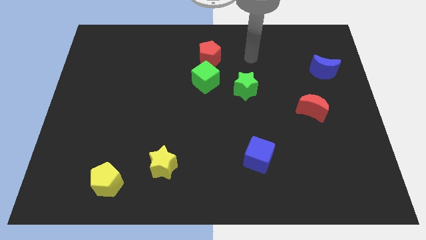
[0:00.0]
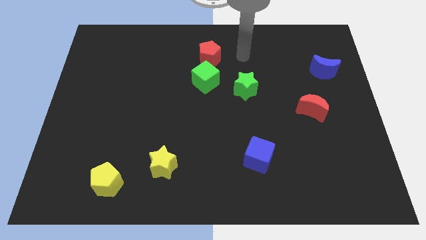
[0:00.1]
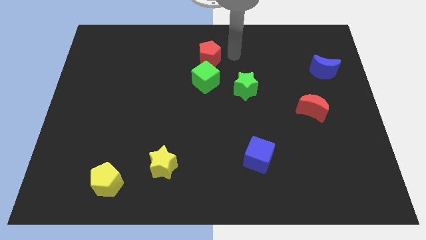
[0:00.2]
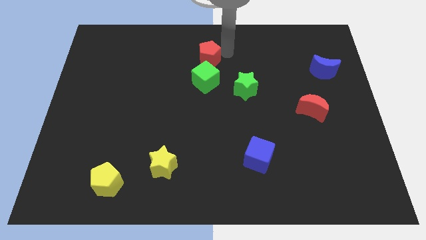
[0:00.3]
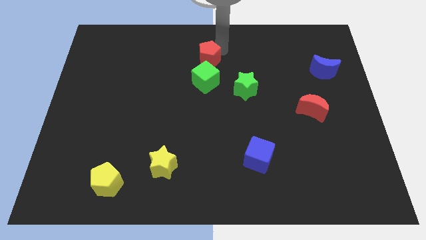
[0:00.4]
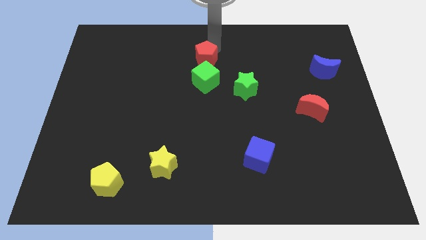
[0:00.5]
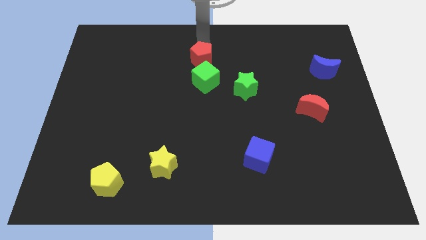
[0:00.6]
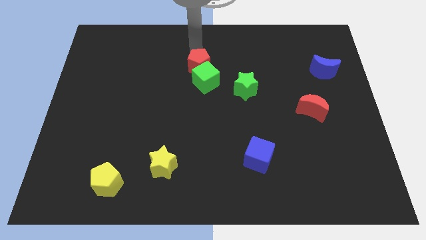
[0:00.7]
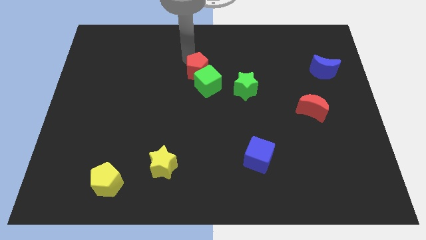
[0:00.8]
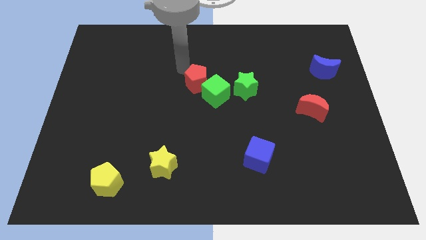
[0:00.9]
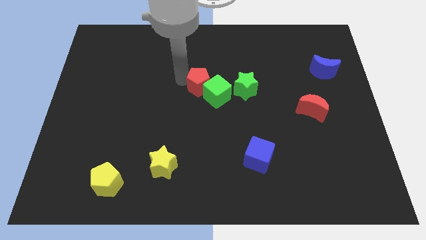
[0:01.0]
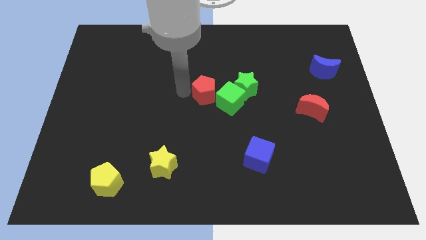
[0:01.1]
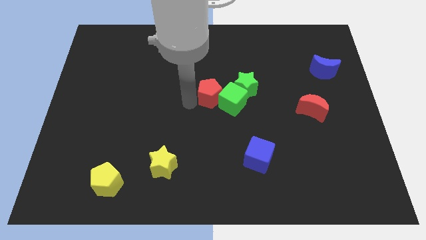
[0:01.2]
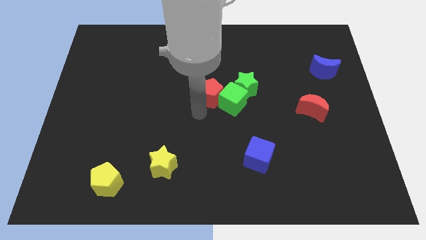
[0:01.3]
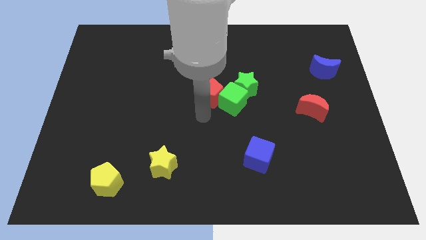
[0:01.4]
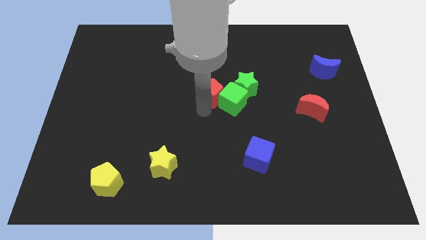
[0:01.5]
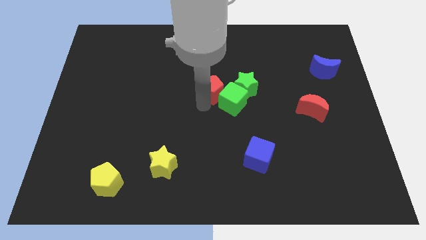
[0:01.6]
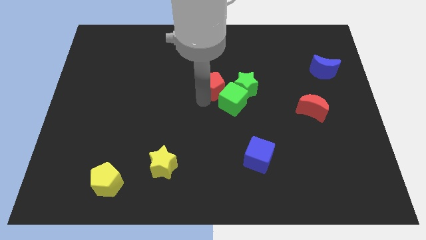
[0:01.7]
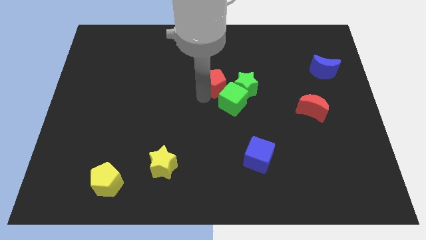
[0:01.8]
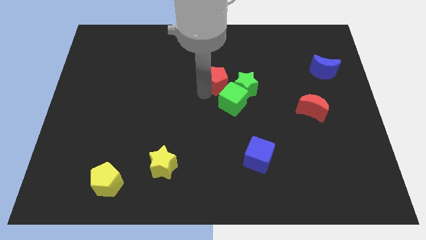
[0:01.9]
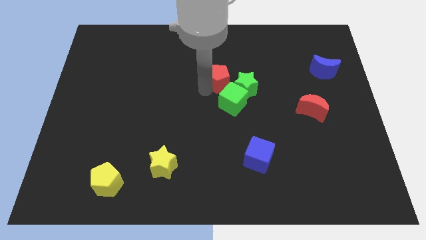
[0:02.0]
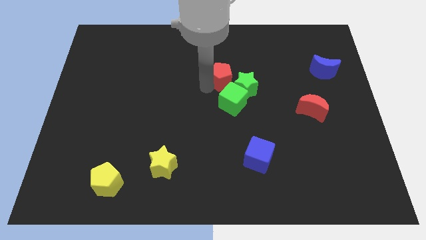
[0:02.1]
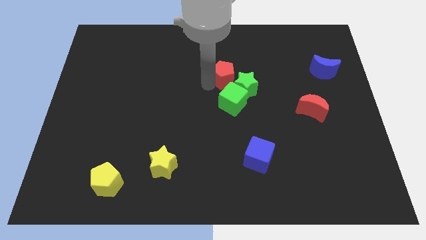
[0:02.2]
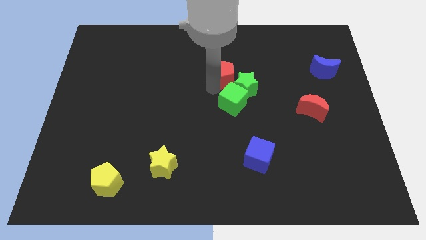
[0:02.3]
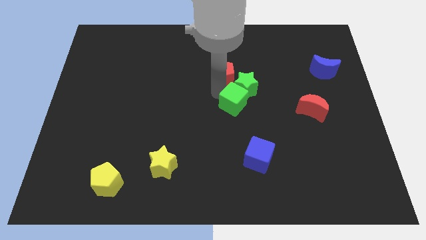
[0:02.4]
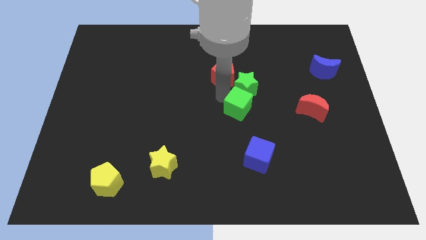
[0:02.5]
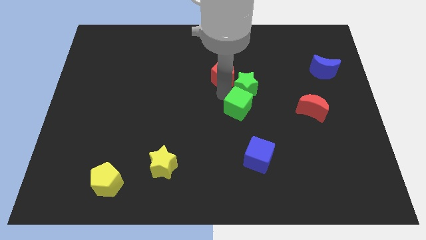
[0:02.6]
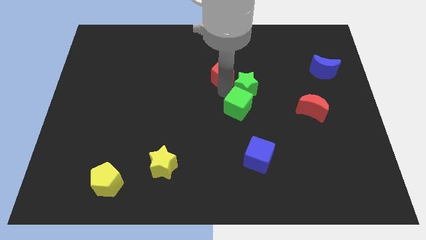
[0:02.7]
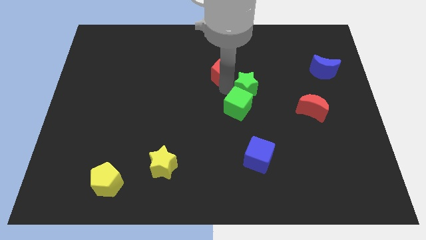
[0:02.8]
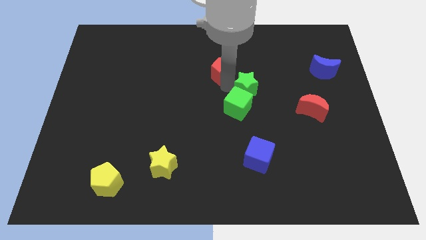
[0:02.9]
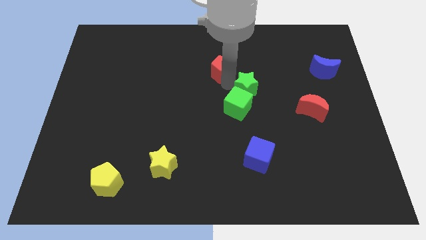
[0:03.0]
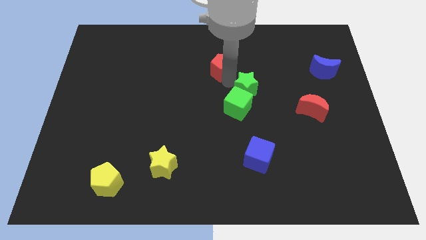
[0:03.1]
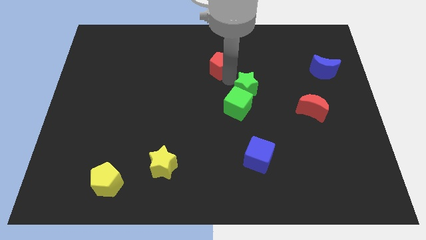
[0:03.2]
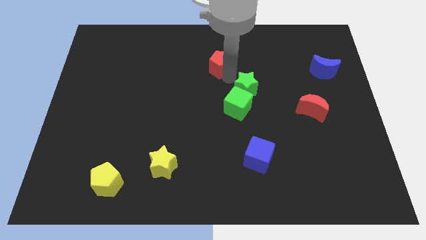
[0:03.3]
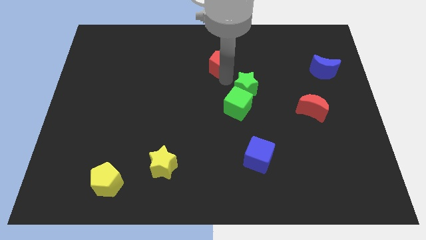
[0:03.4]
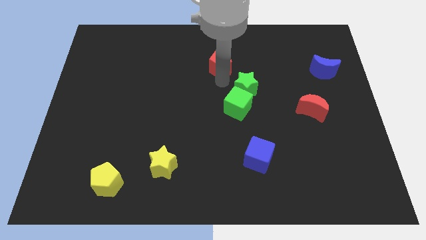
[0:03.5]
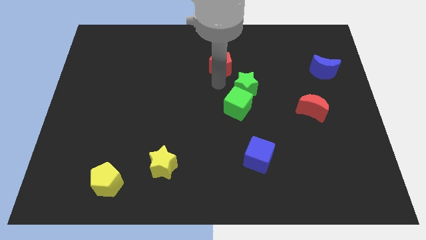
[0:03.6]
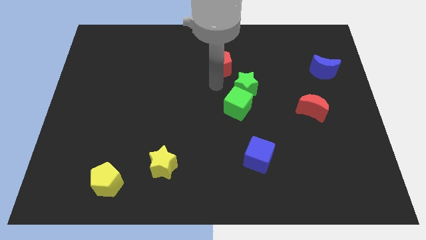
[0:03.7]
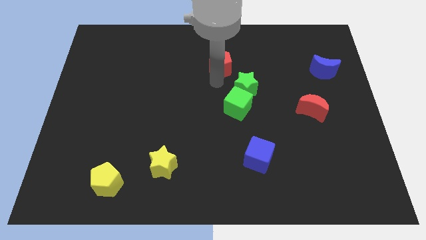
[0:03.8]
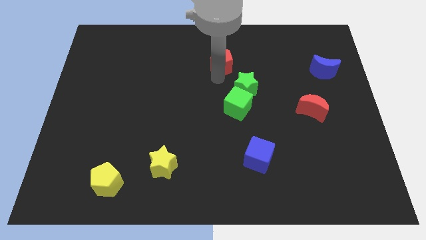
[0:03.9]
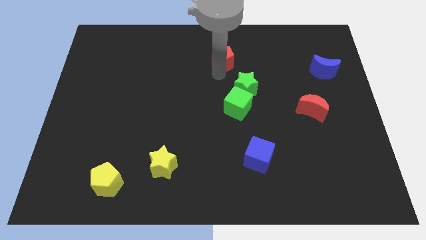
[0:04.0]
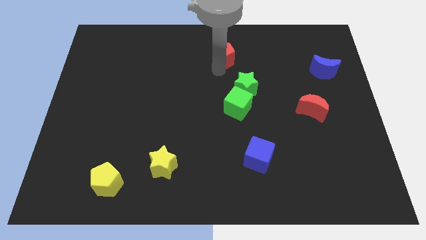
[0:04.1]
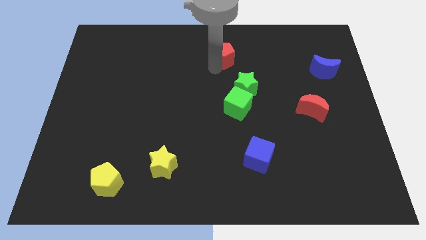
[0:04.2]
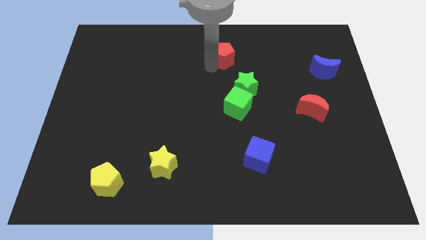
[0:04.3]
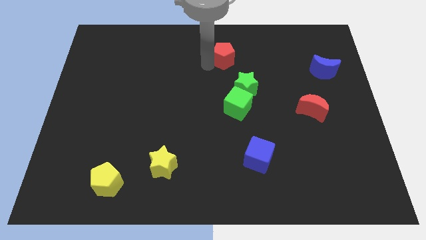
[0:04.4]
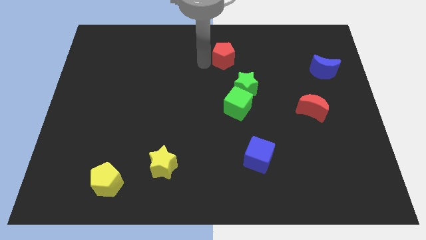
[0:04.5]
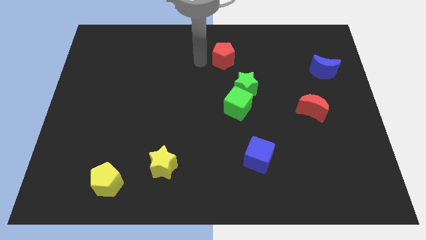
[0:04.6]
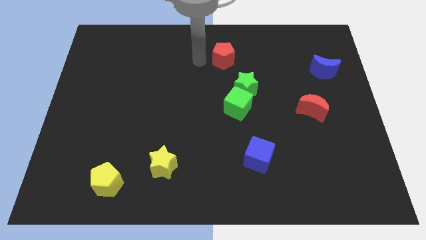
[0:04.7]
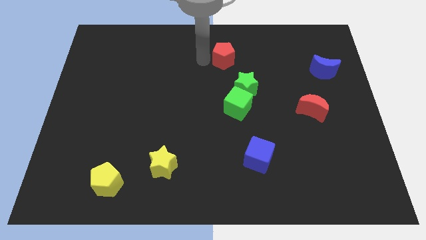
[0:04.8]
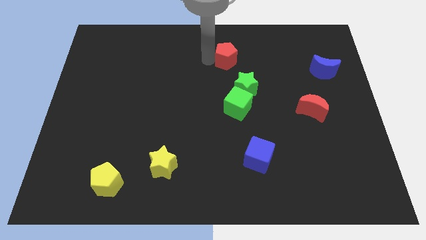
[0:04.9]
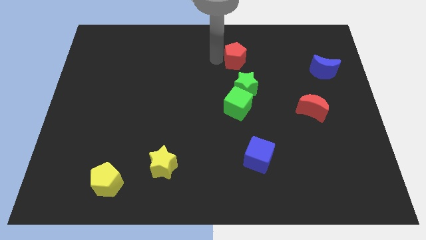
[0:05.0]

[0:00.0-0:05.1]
push the red pentagon right somewhat

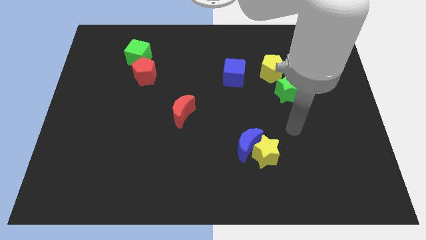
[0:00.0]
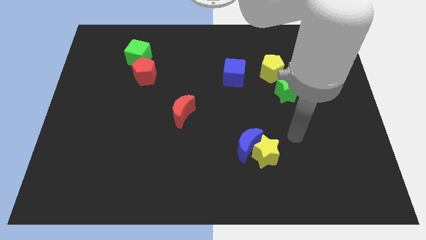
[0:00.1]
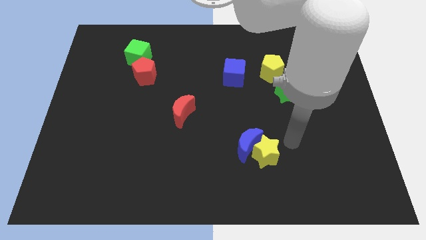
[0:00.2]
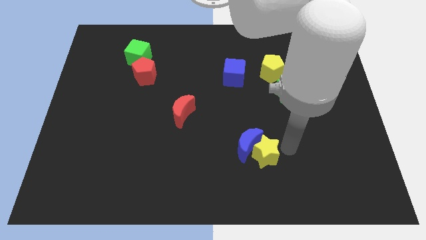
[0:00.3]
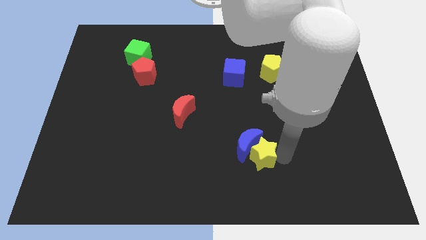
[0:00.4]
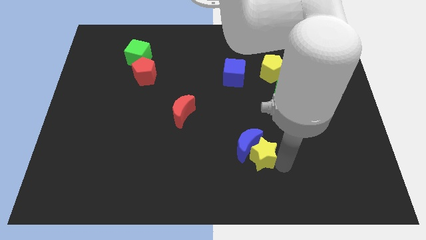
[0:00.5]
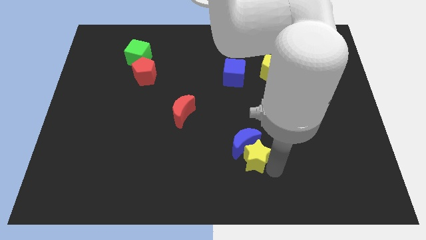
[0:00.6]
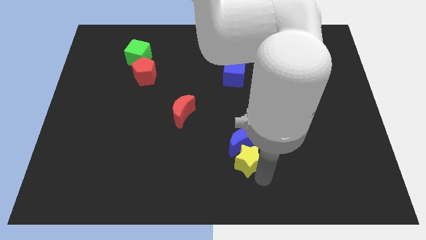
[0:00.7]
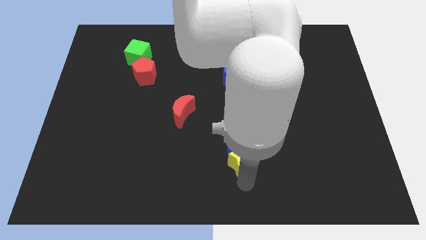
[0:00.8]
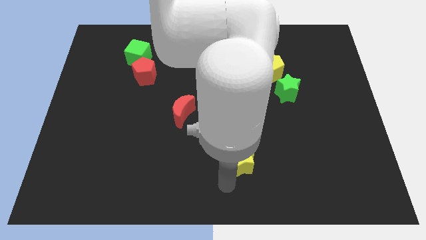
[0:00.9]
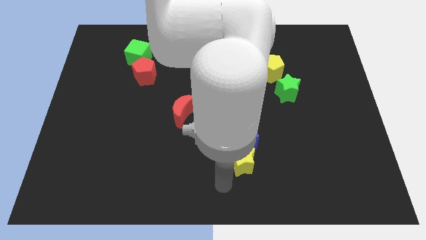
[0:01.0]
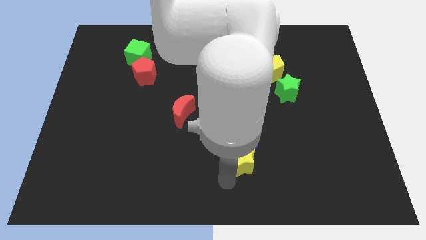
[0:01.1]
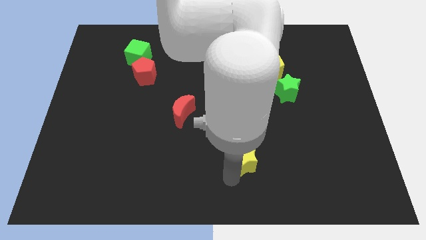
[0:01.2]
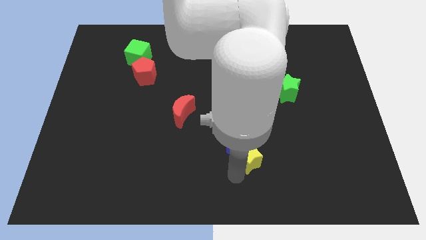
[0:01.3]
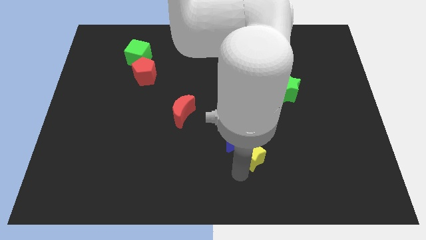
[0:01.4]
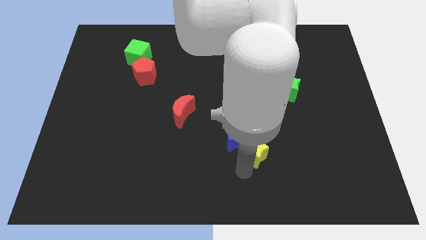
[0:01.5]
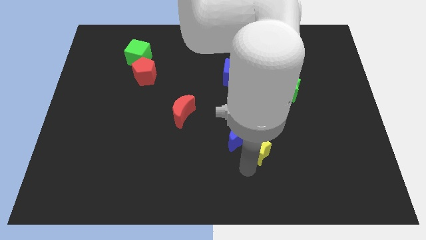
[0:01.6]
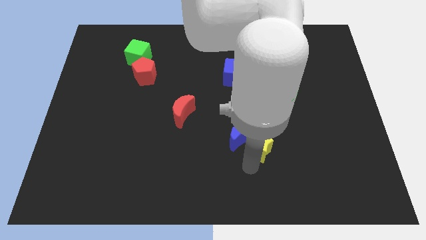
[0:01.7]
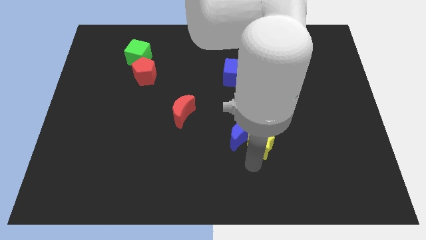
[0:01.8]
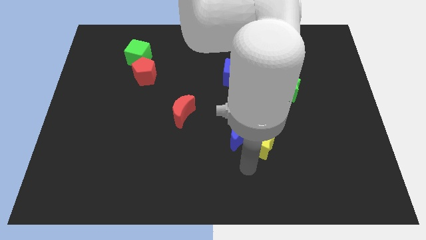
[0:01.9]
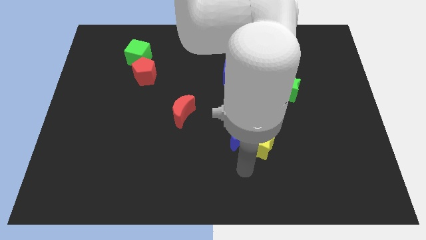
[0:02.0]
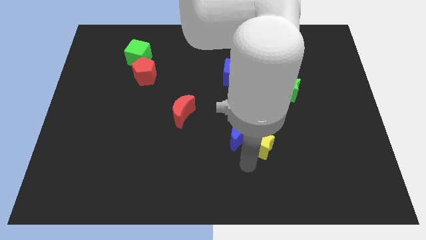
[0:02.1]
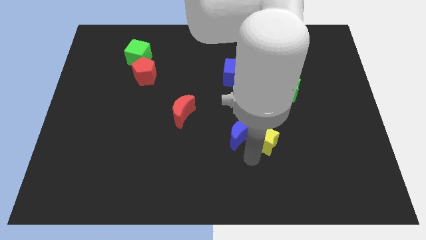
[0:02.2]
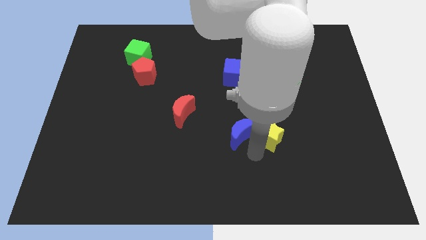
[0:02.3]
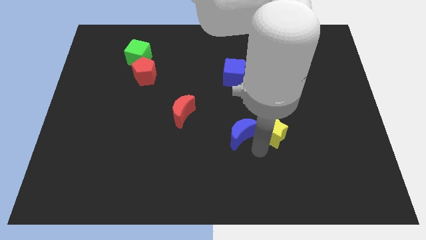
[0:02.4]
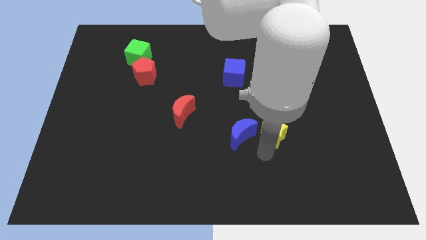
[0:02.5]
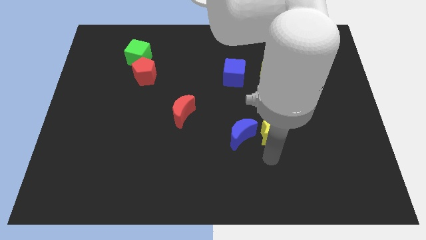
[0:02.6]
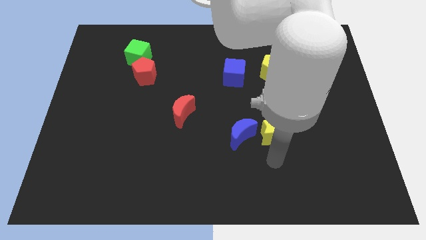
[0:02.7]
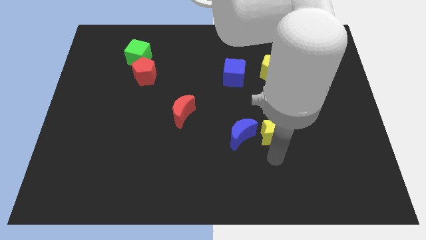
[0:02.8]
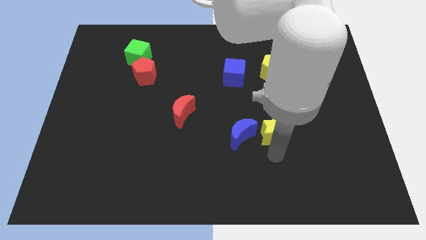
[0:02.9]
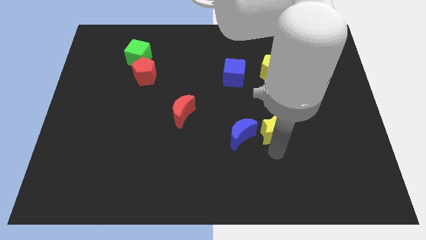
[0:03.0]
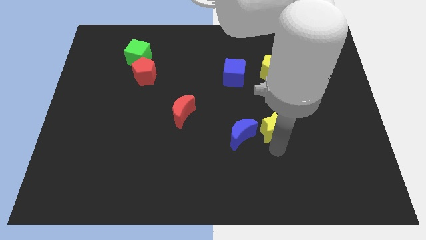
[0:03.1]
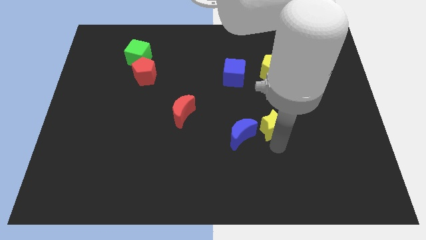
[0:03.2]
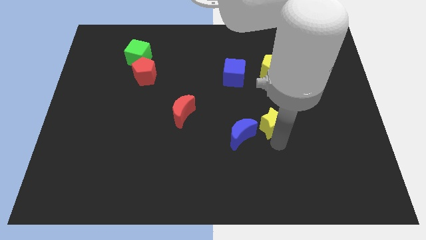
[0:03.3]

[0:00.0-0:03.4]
push the yellow star a little up

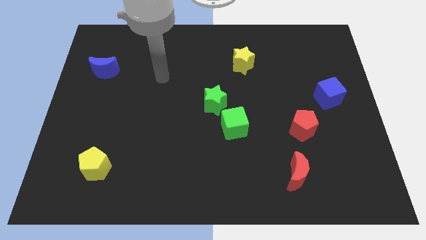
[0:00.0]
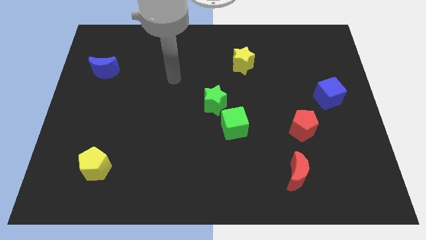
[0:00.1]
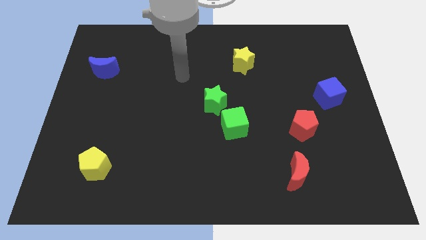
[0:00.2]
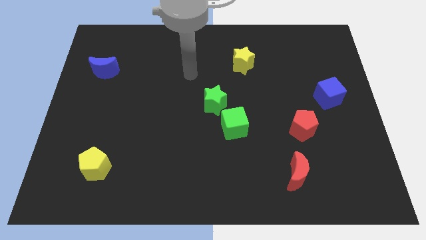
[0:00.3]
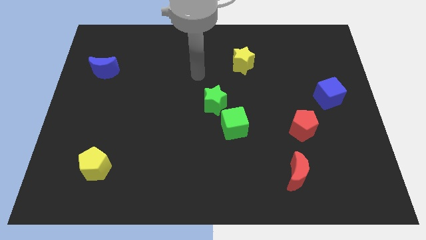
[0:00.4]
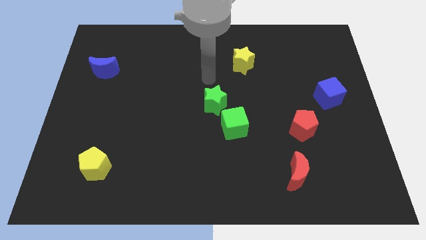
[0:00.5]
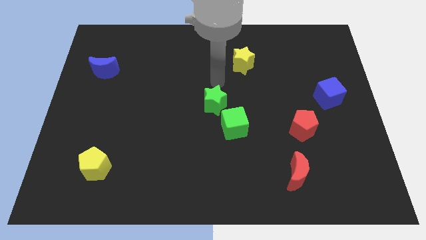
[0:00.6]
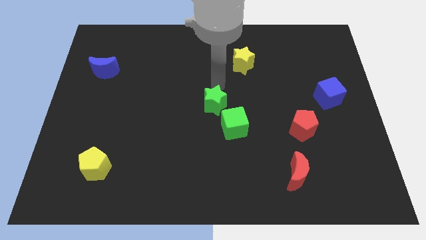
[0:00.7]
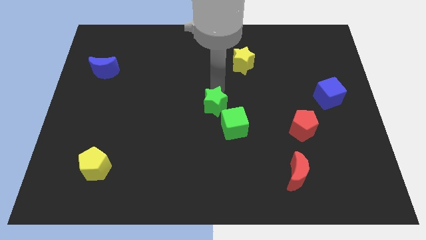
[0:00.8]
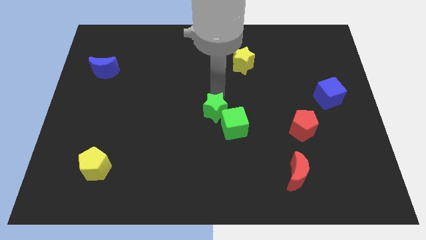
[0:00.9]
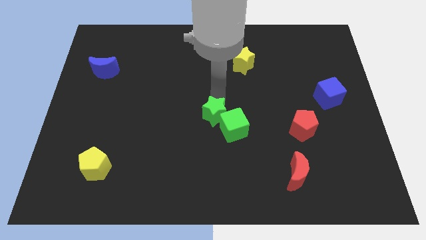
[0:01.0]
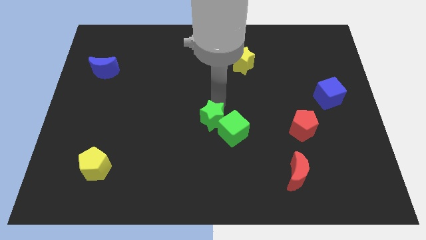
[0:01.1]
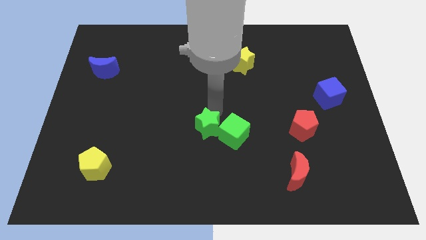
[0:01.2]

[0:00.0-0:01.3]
slightly push the green star downwards
